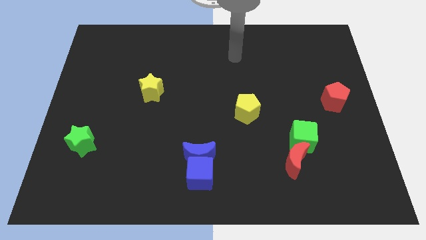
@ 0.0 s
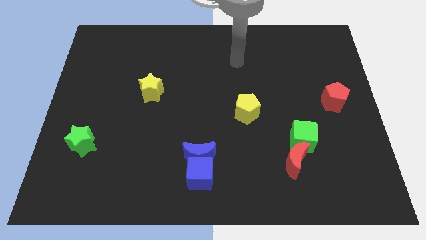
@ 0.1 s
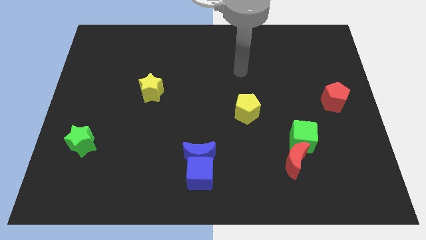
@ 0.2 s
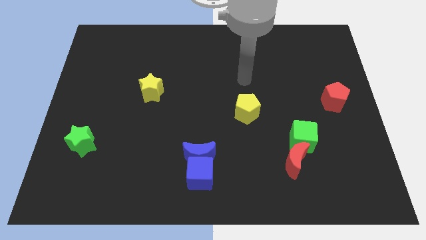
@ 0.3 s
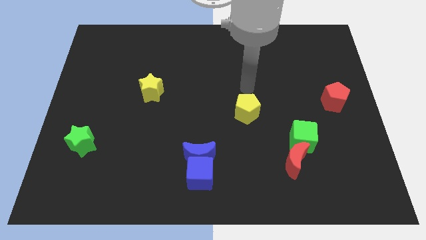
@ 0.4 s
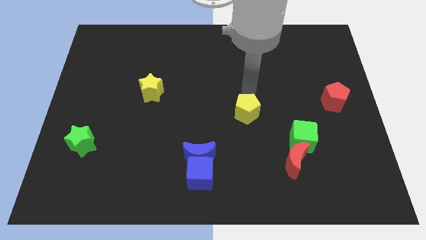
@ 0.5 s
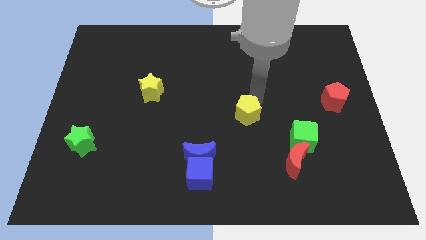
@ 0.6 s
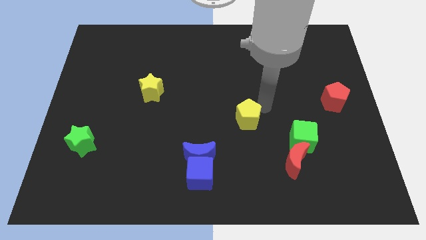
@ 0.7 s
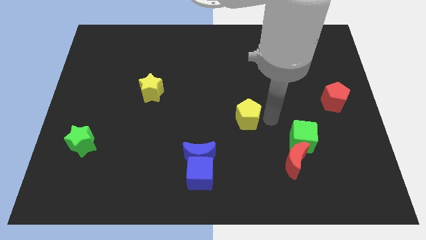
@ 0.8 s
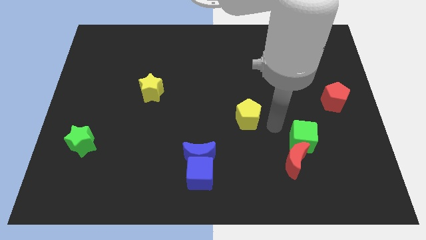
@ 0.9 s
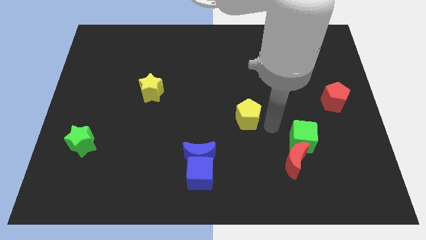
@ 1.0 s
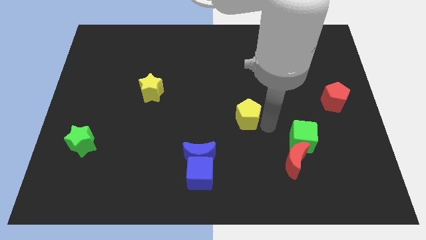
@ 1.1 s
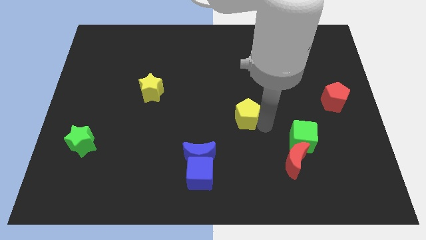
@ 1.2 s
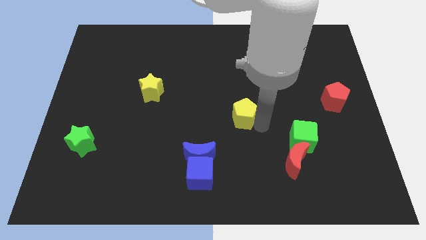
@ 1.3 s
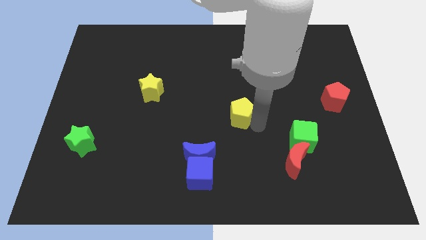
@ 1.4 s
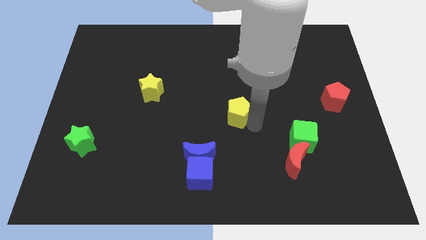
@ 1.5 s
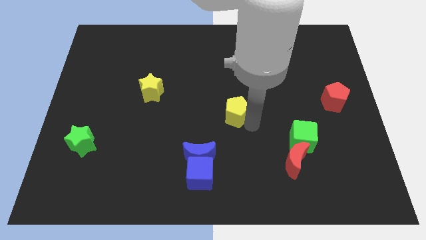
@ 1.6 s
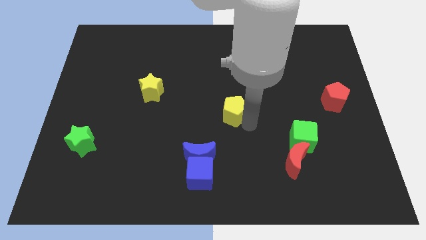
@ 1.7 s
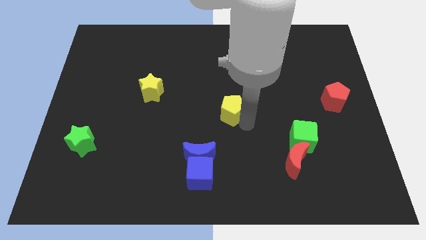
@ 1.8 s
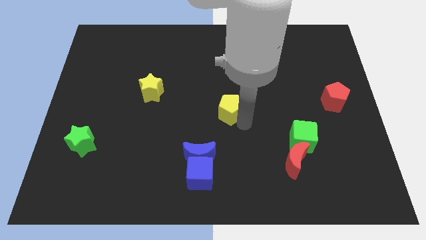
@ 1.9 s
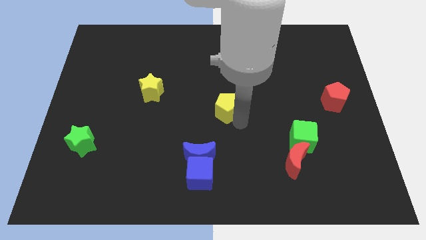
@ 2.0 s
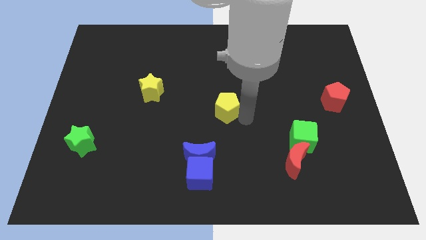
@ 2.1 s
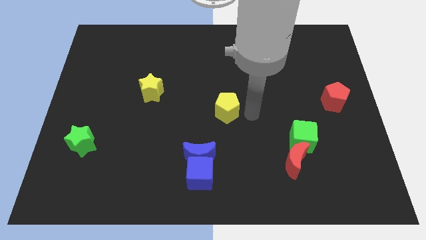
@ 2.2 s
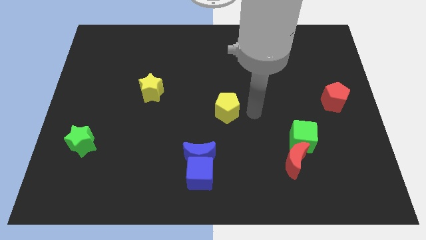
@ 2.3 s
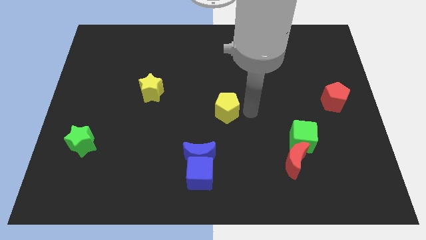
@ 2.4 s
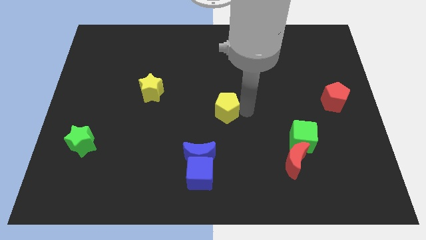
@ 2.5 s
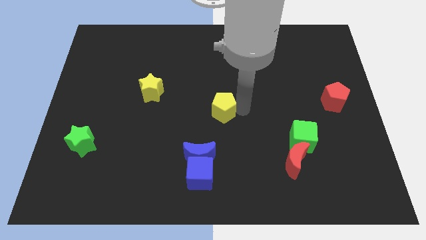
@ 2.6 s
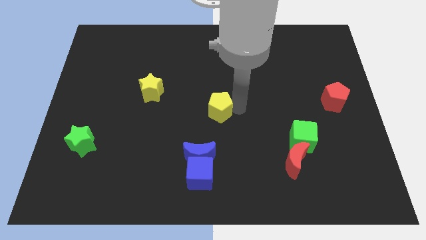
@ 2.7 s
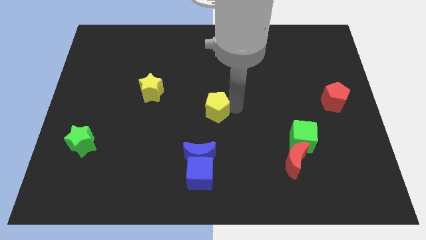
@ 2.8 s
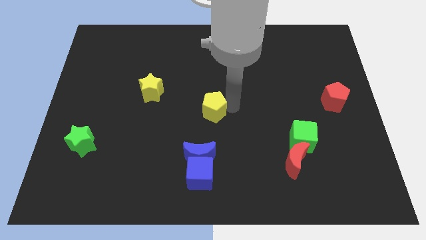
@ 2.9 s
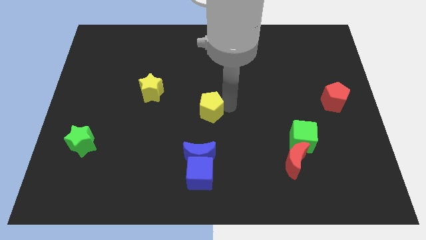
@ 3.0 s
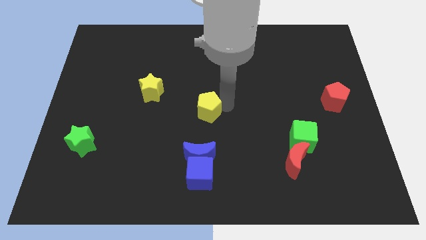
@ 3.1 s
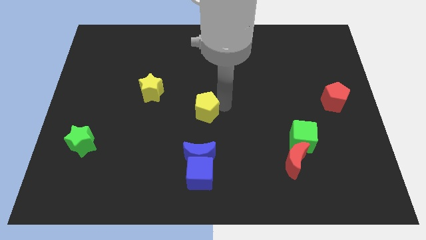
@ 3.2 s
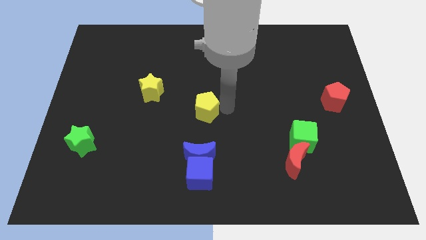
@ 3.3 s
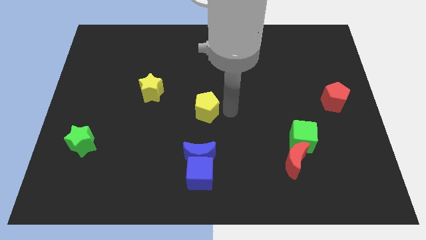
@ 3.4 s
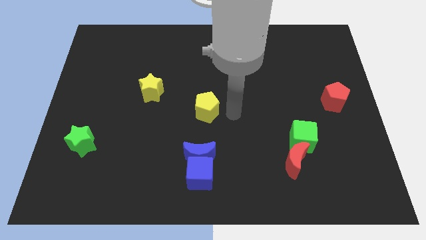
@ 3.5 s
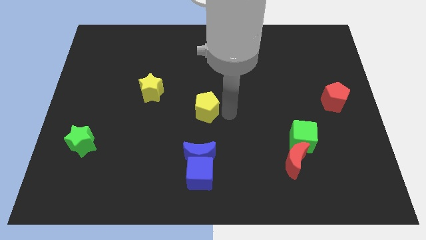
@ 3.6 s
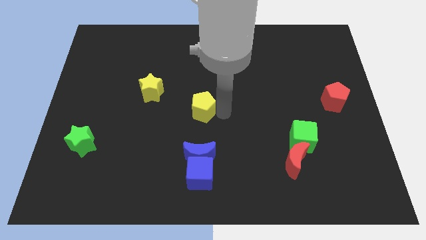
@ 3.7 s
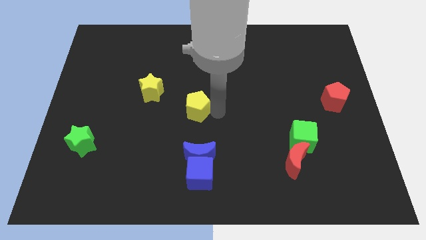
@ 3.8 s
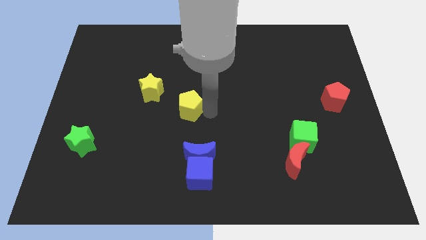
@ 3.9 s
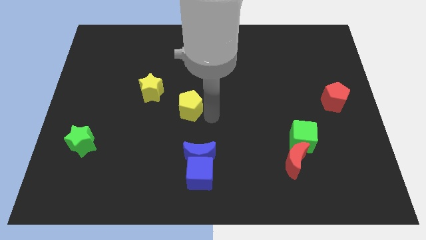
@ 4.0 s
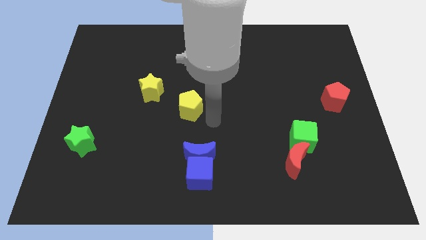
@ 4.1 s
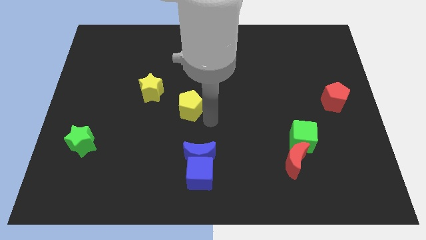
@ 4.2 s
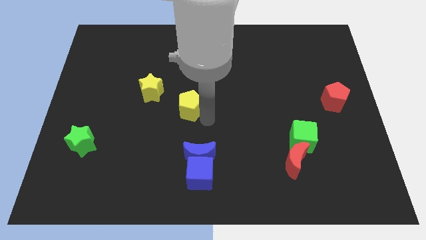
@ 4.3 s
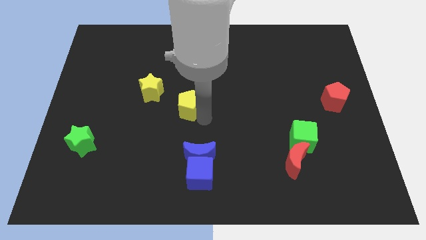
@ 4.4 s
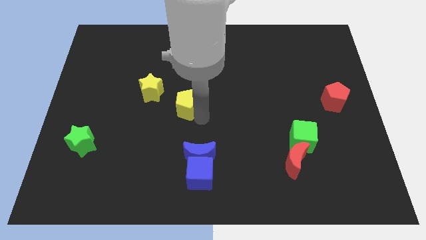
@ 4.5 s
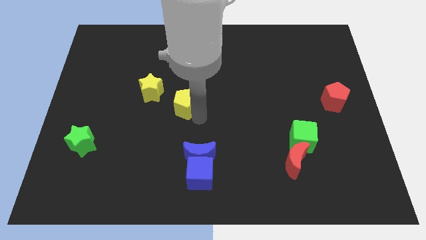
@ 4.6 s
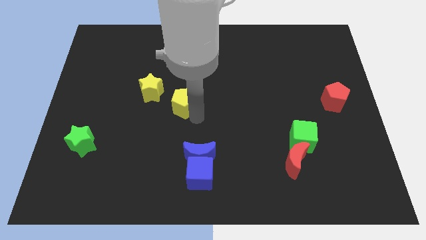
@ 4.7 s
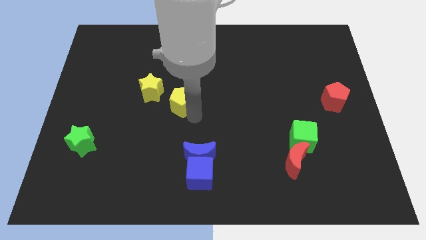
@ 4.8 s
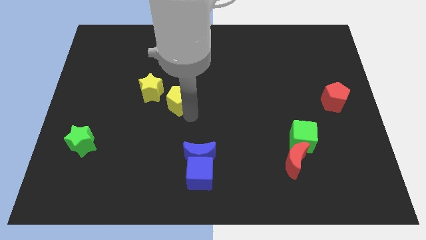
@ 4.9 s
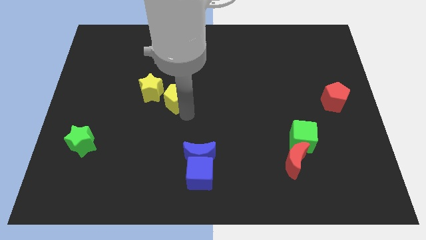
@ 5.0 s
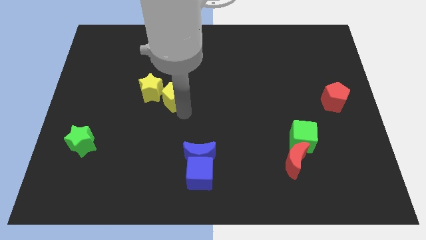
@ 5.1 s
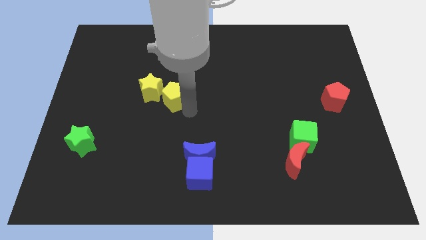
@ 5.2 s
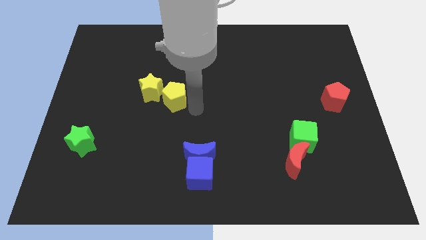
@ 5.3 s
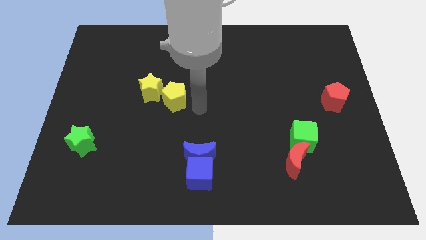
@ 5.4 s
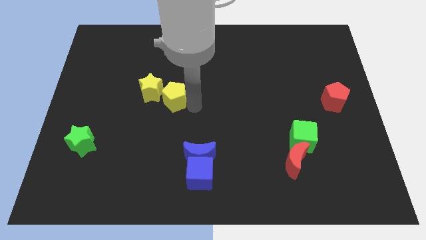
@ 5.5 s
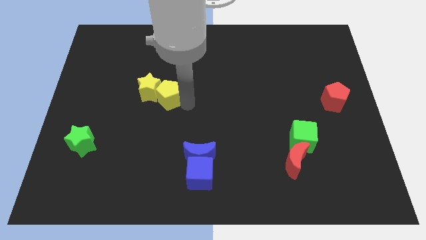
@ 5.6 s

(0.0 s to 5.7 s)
slide the yellow pentagon to the yellow star

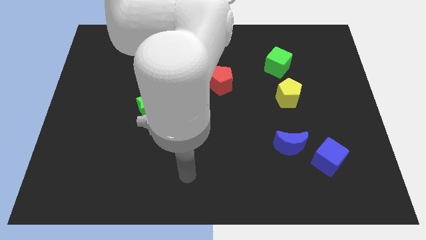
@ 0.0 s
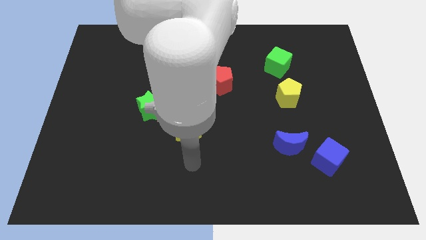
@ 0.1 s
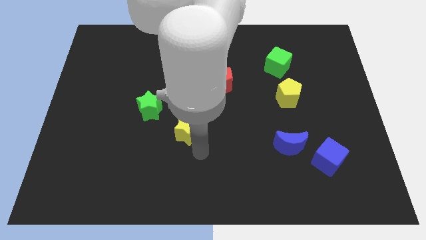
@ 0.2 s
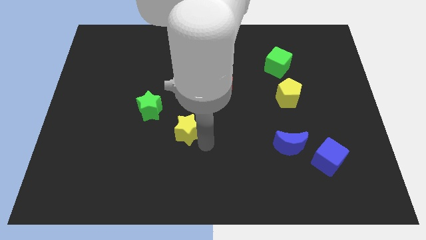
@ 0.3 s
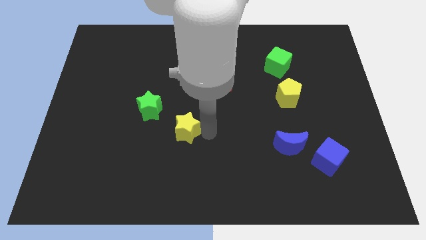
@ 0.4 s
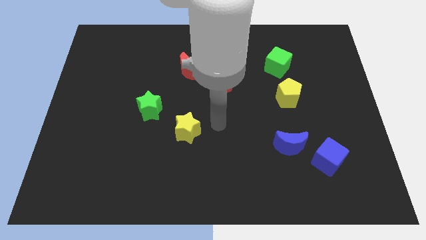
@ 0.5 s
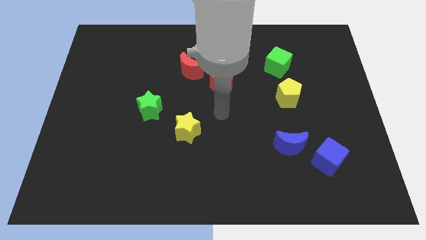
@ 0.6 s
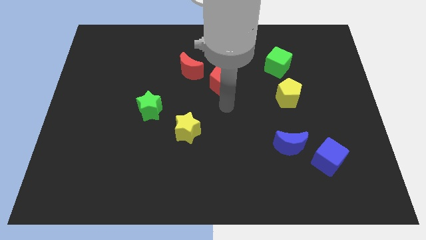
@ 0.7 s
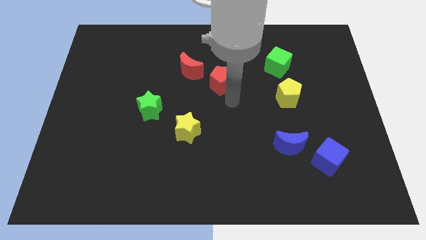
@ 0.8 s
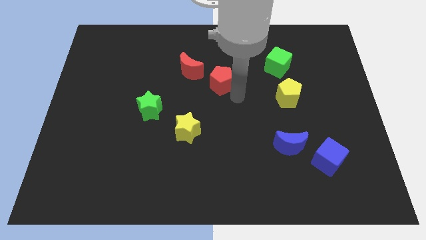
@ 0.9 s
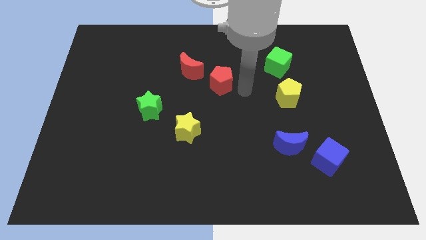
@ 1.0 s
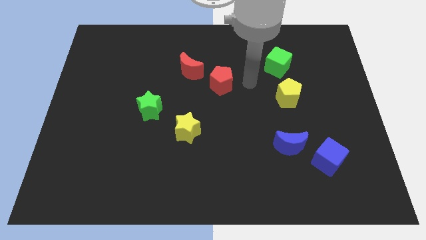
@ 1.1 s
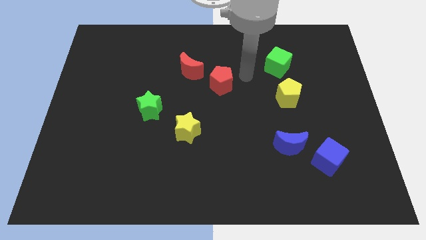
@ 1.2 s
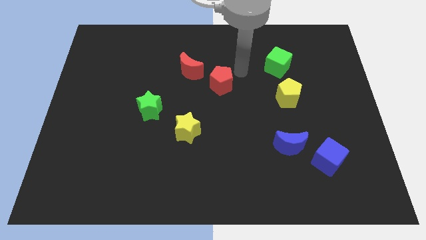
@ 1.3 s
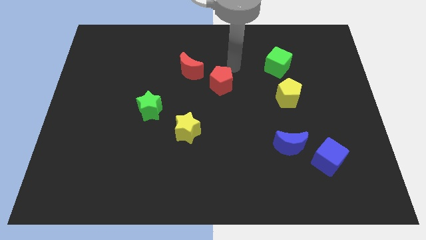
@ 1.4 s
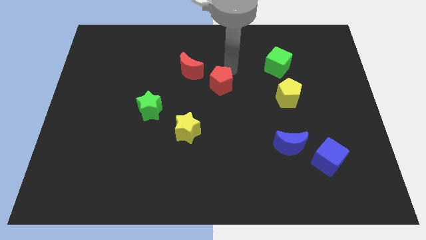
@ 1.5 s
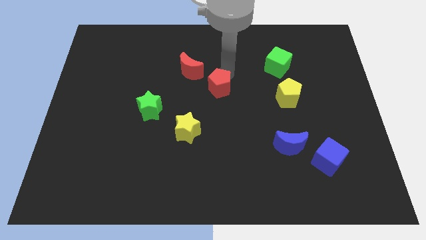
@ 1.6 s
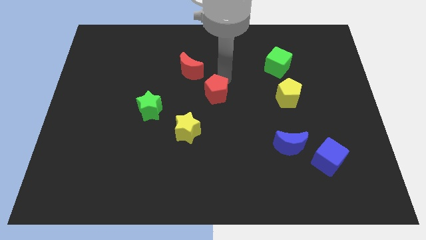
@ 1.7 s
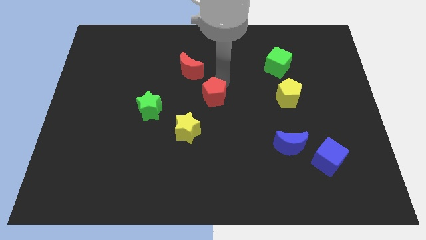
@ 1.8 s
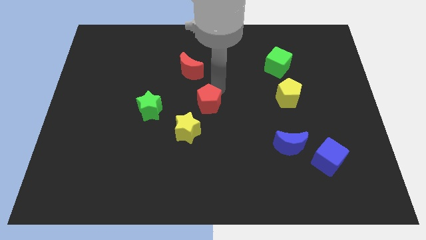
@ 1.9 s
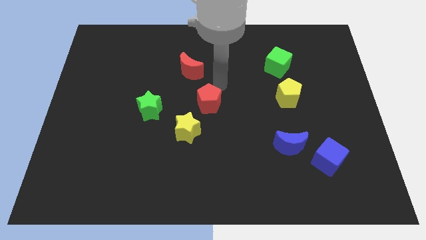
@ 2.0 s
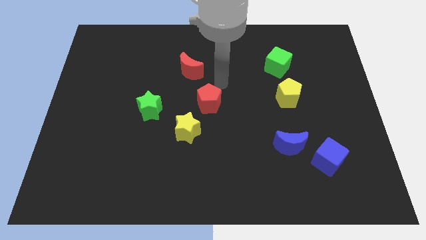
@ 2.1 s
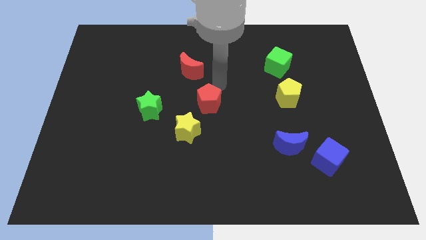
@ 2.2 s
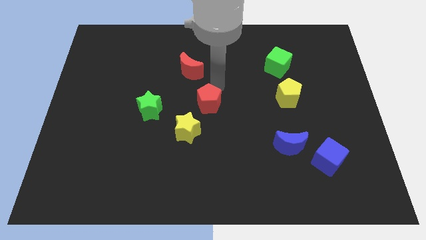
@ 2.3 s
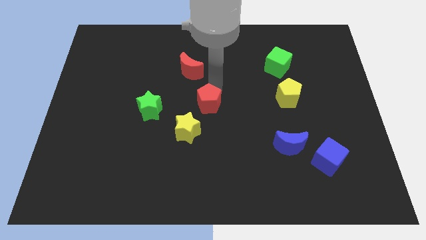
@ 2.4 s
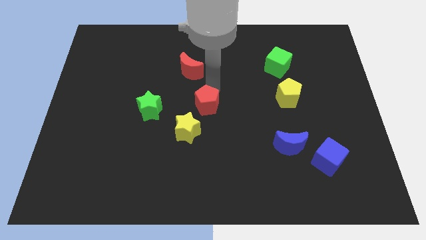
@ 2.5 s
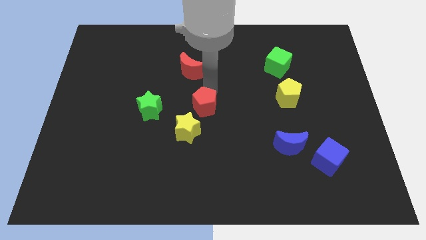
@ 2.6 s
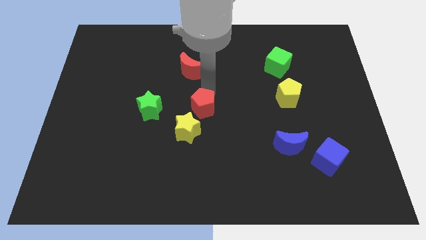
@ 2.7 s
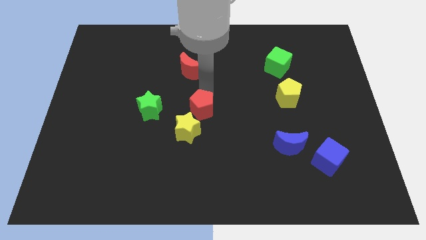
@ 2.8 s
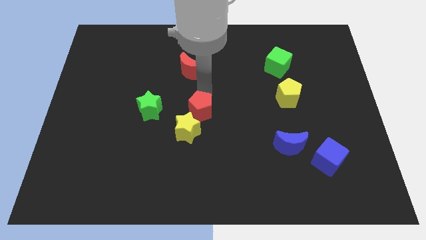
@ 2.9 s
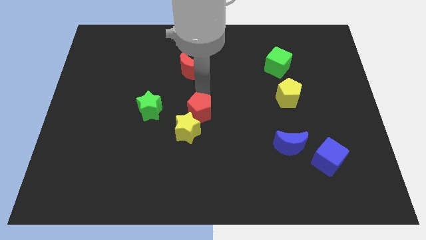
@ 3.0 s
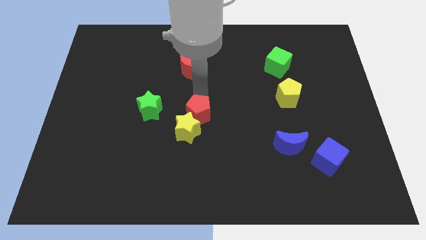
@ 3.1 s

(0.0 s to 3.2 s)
push the red pentagon next to the yellow star
